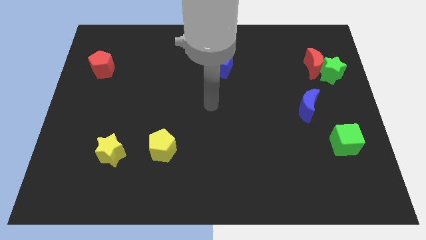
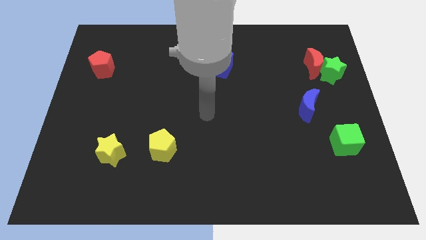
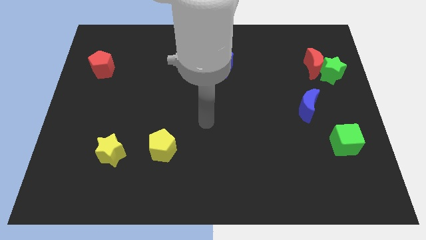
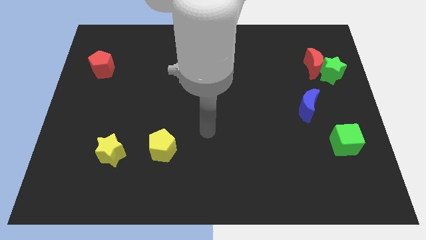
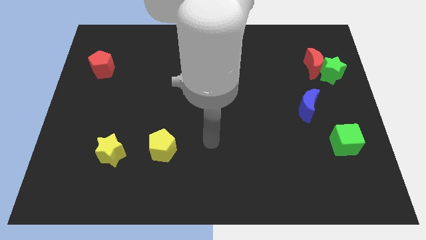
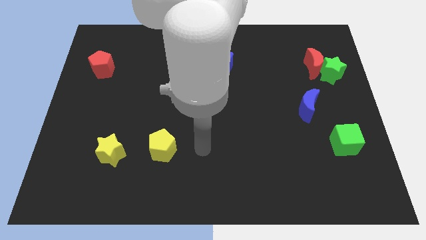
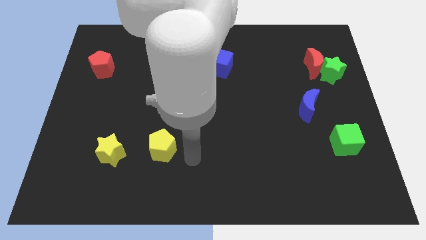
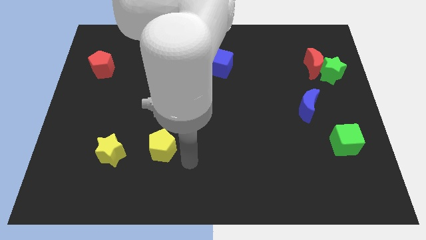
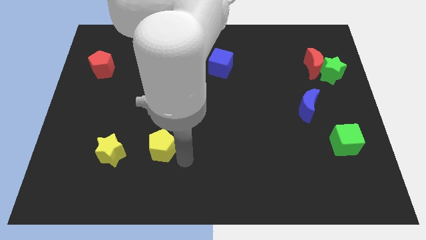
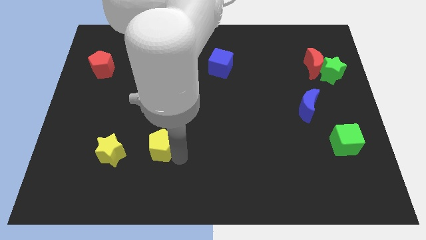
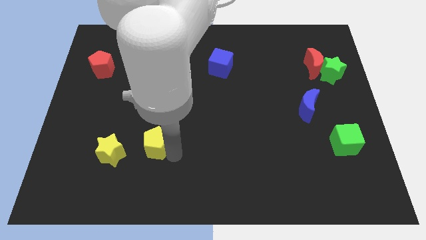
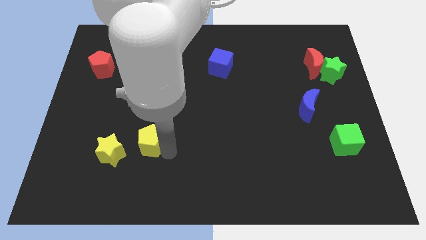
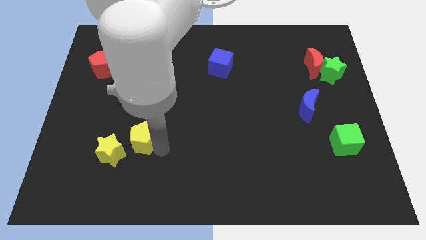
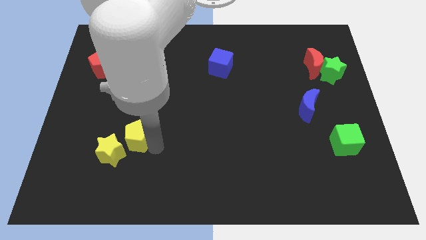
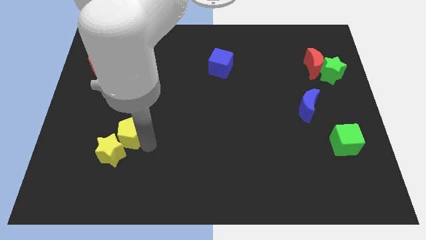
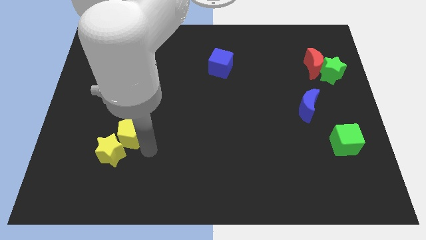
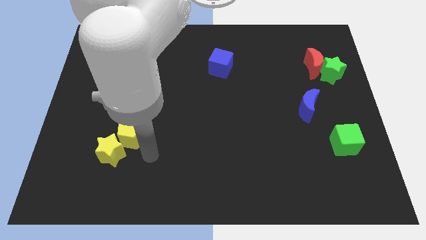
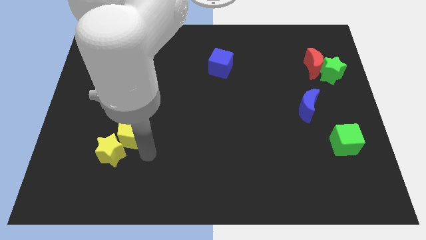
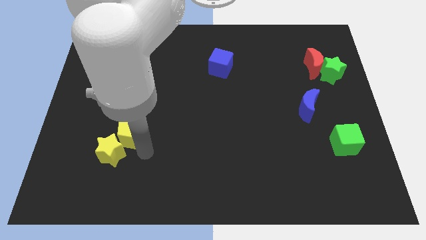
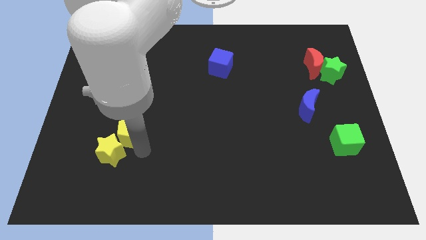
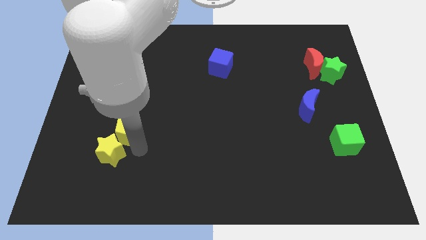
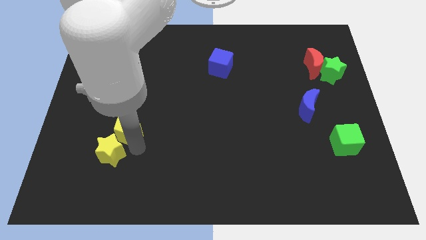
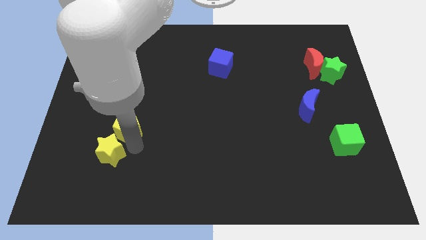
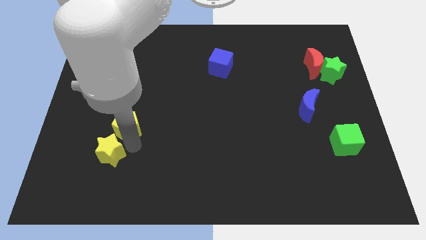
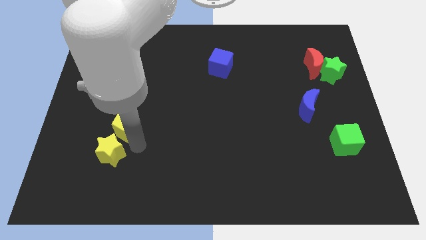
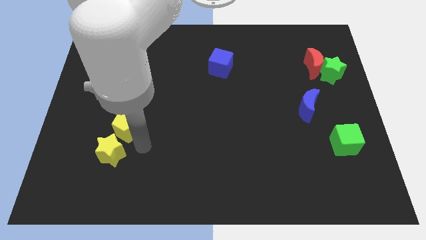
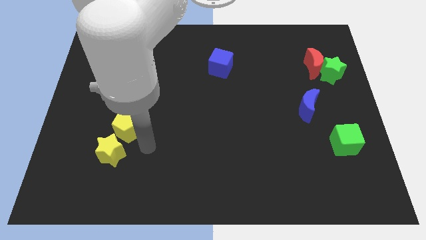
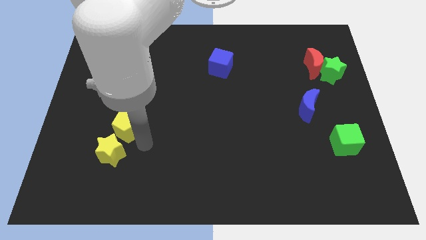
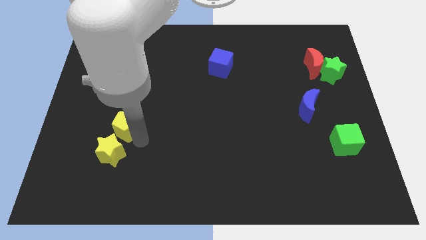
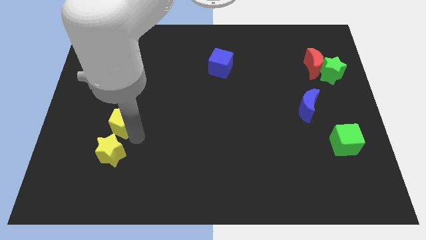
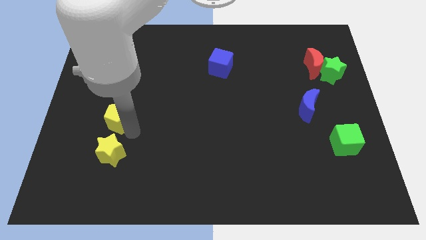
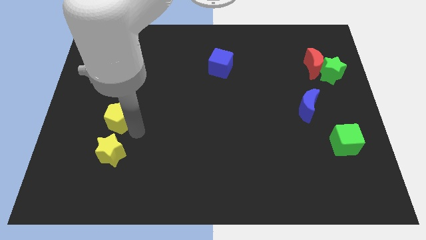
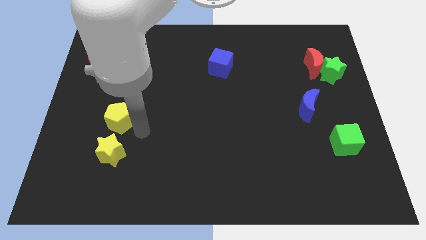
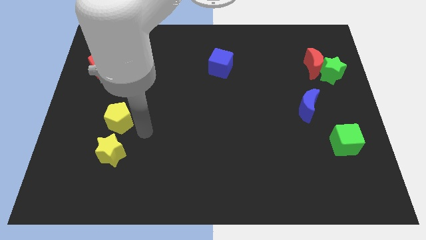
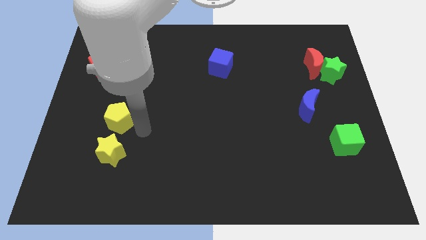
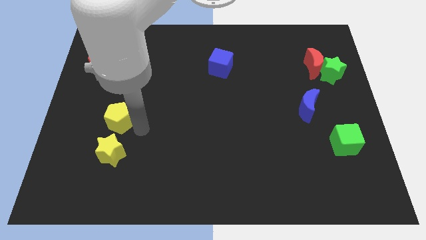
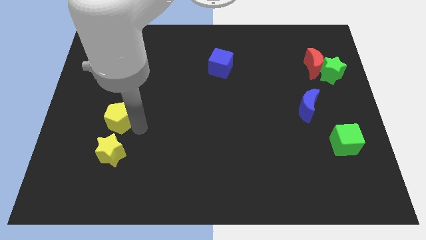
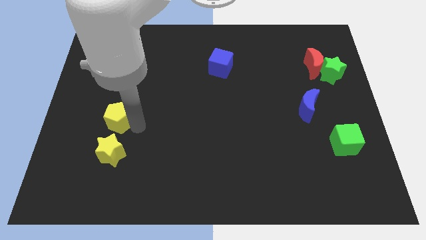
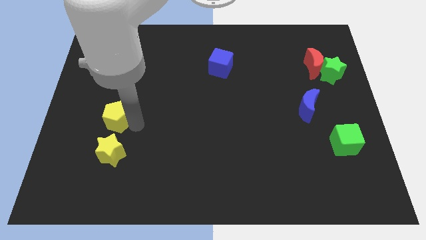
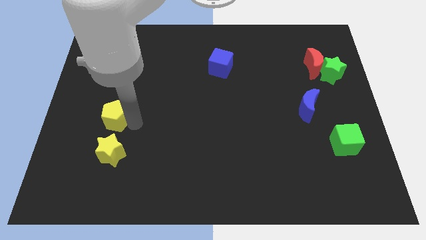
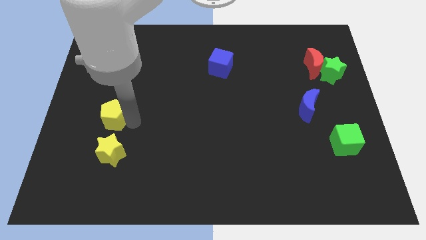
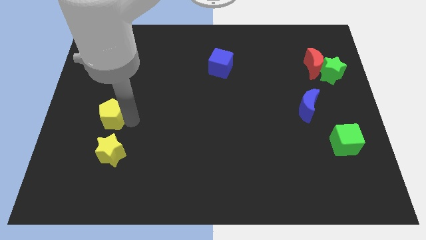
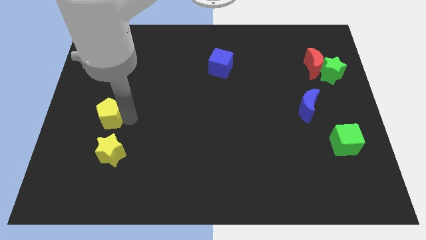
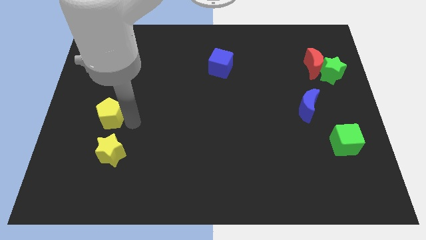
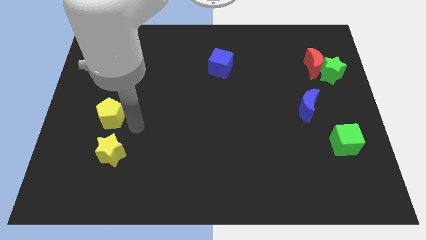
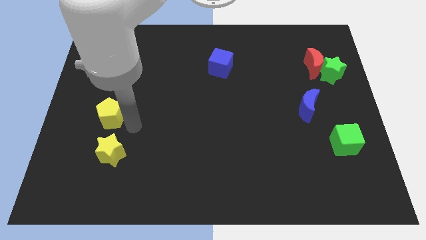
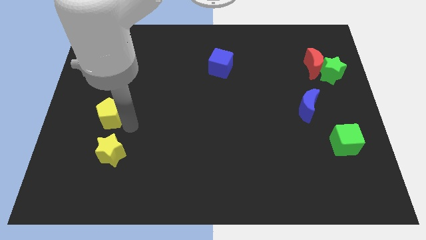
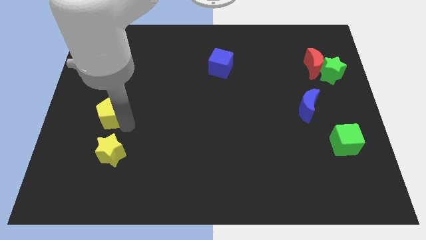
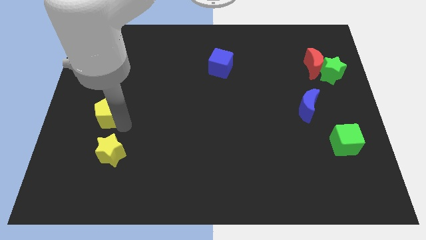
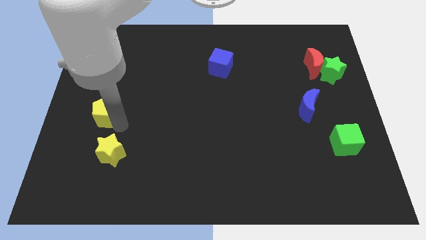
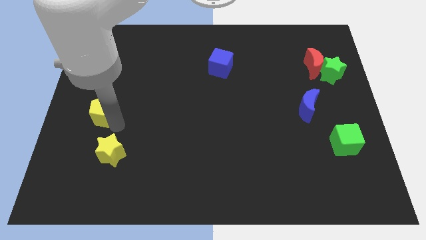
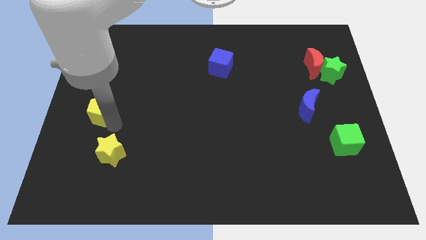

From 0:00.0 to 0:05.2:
move the yellow pentagon to the center left

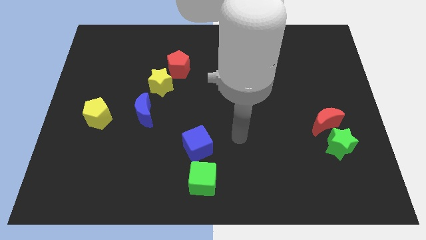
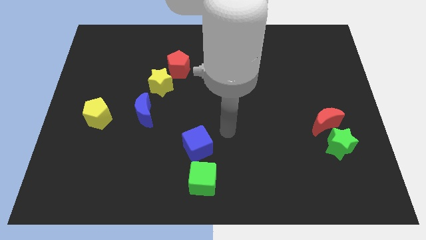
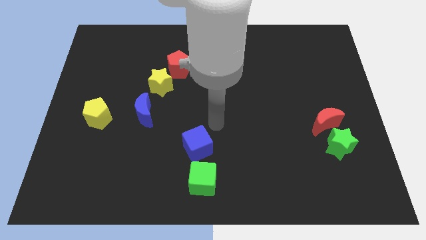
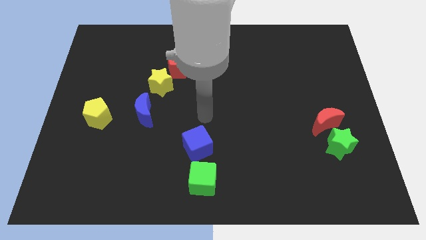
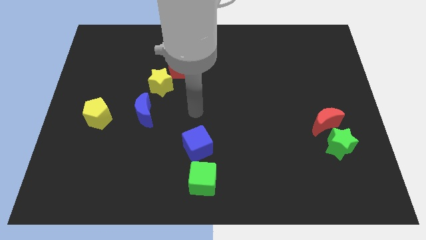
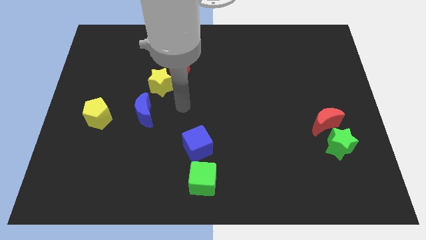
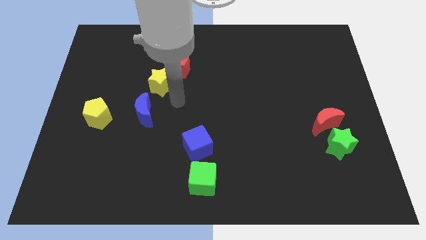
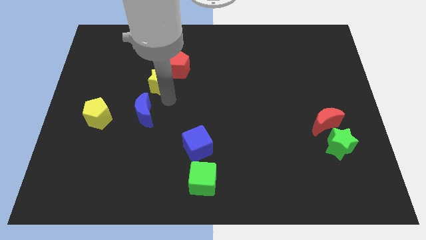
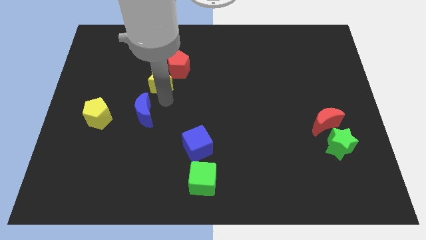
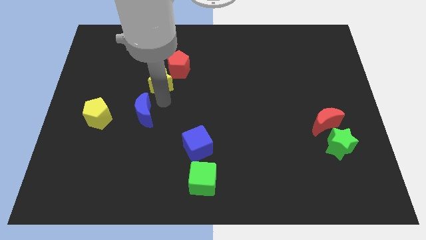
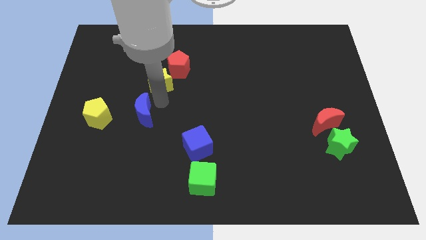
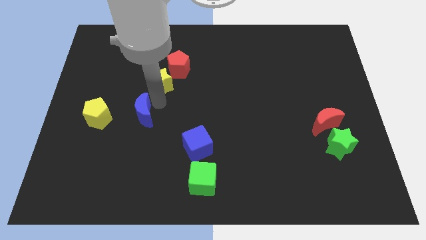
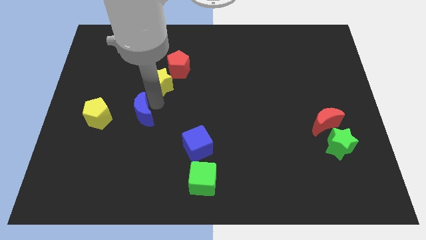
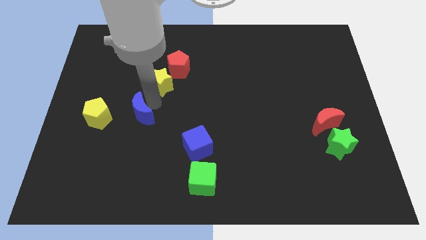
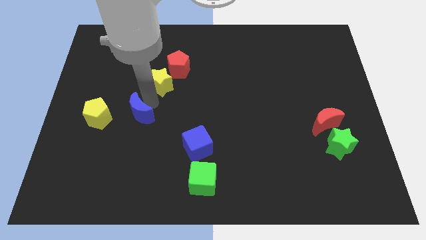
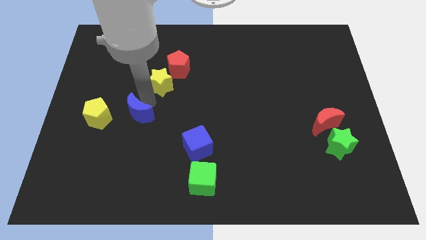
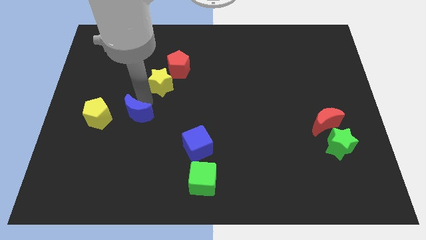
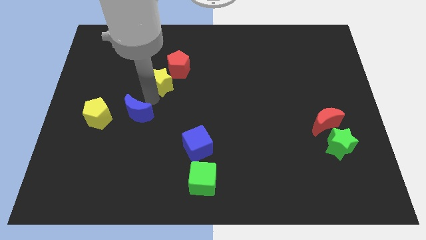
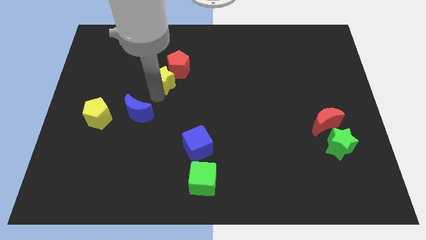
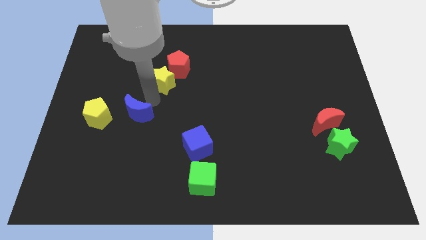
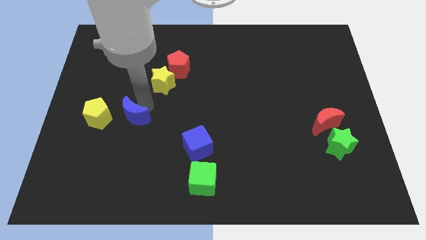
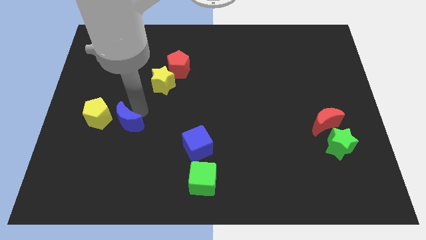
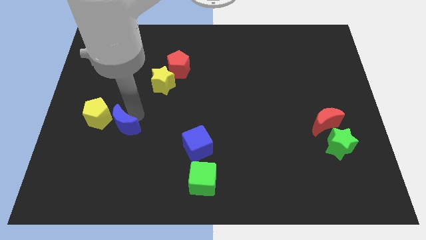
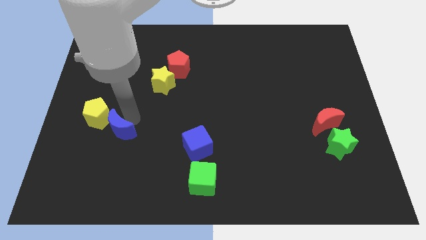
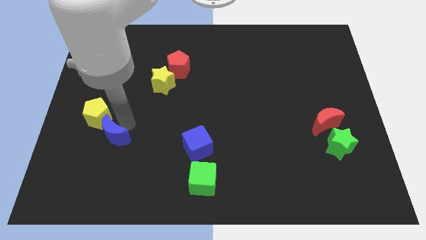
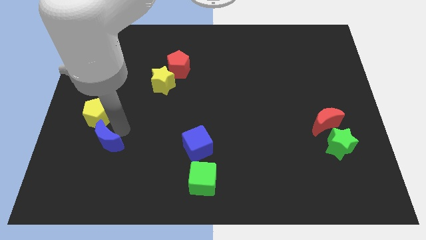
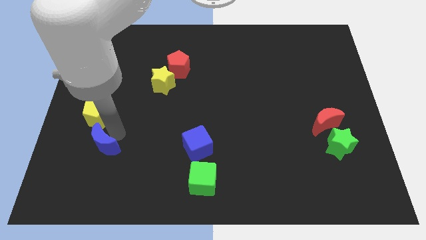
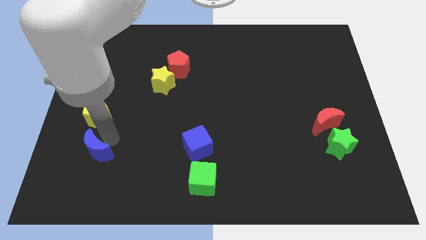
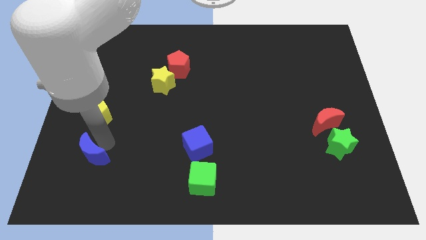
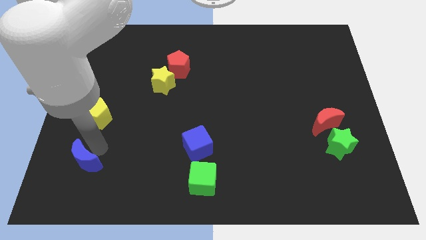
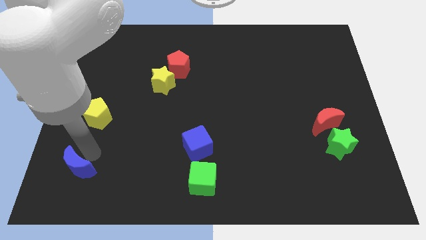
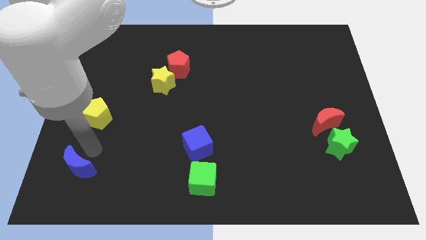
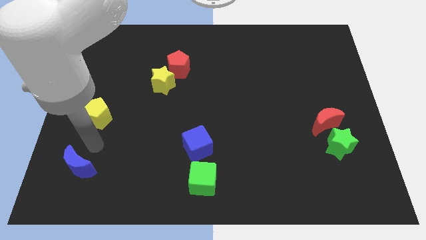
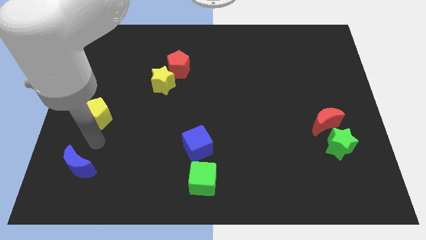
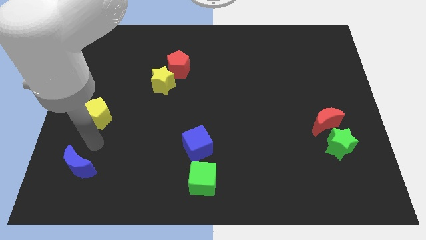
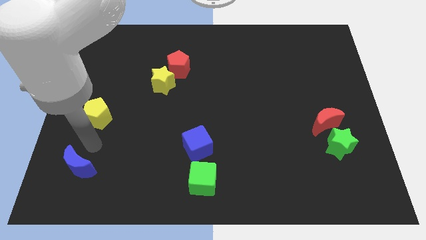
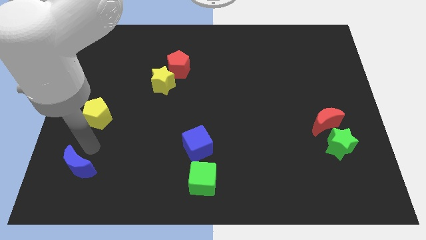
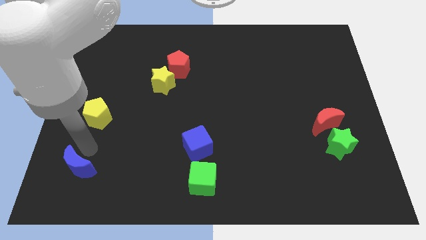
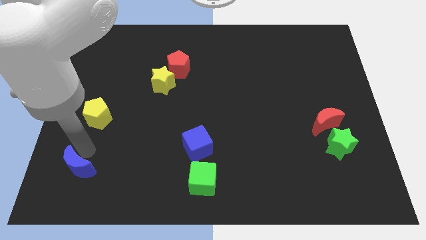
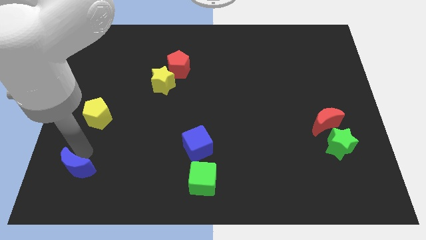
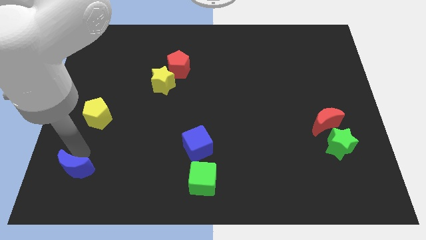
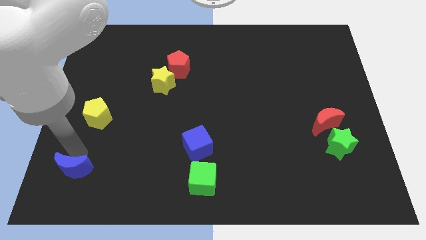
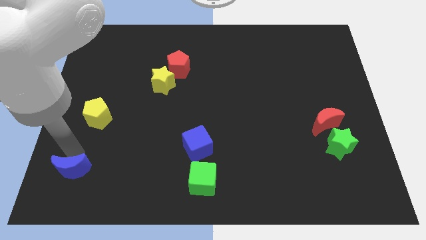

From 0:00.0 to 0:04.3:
move the blue moon to the bottom left corner
